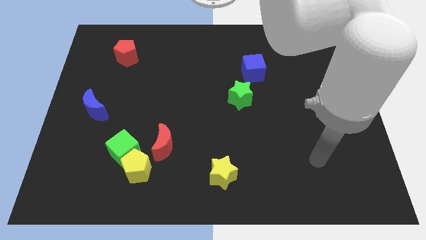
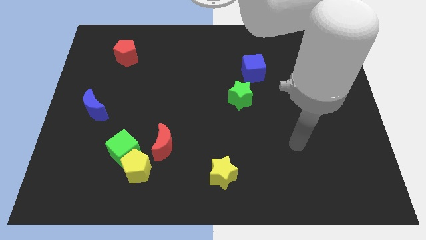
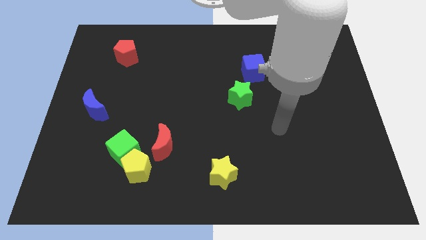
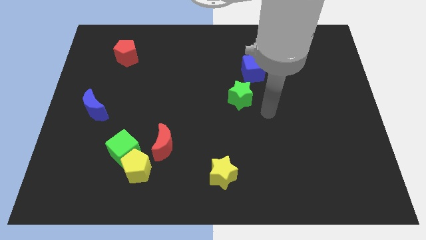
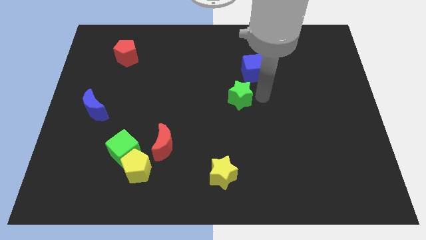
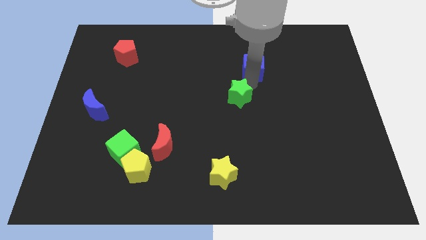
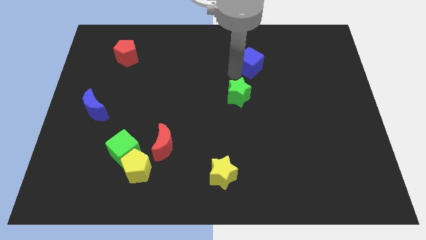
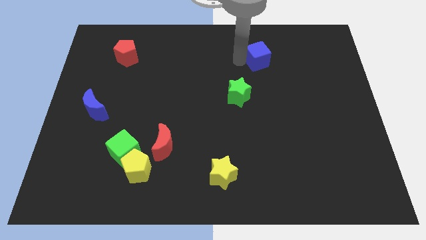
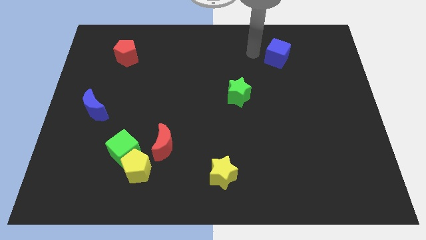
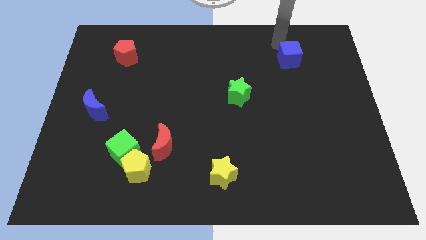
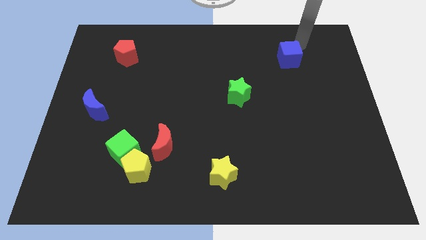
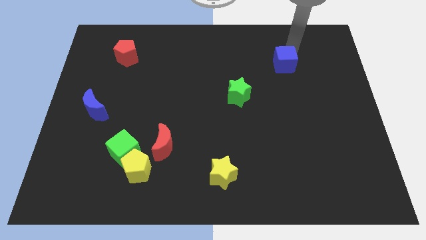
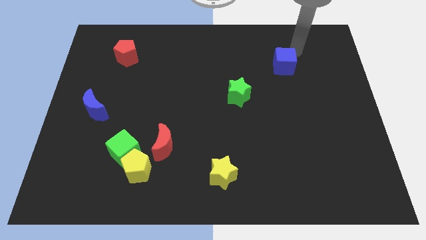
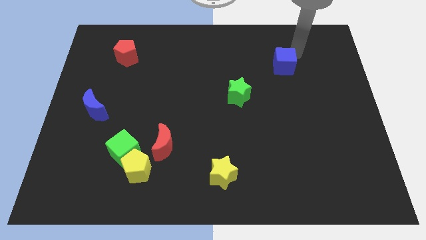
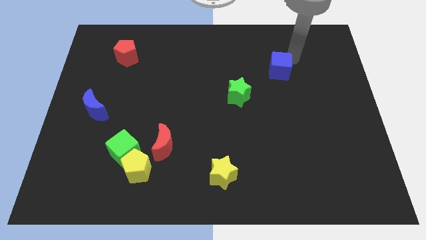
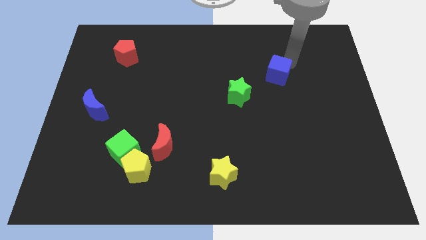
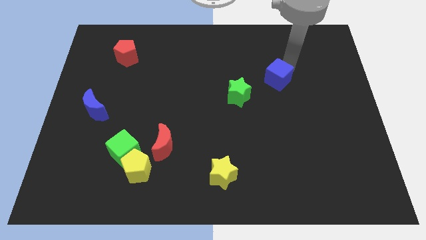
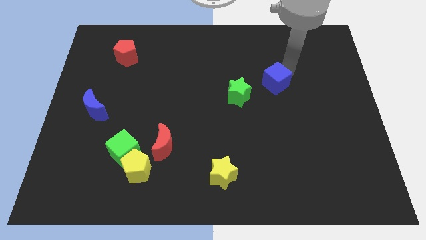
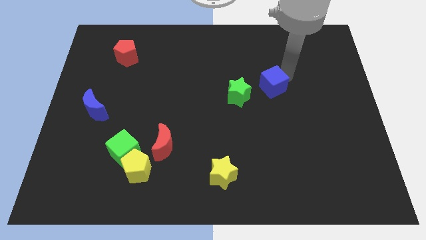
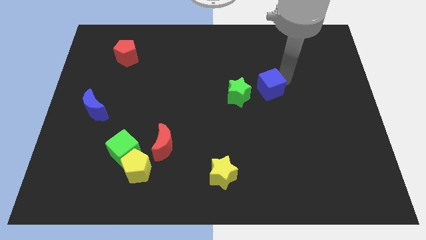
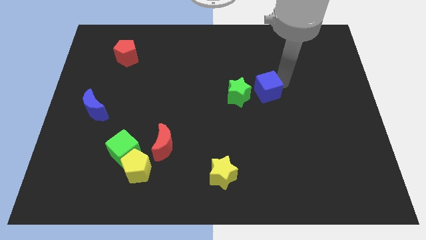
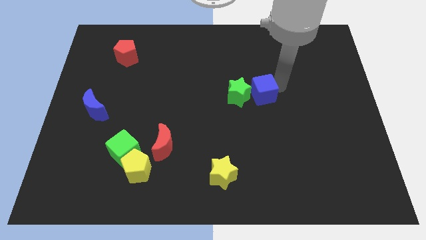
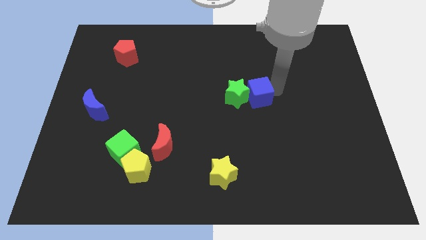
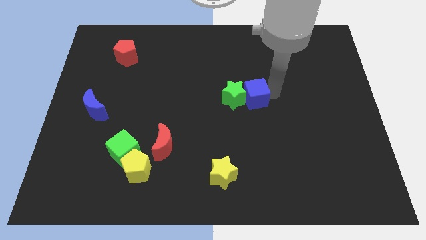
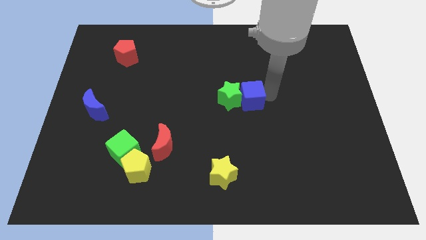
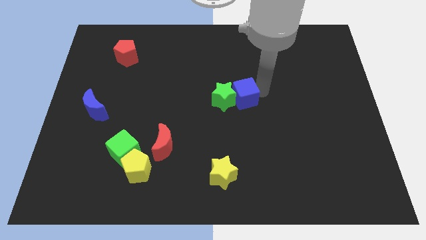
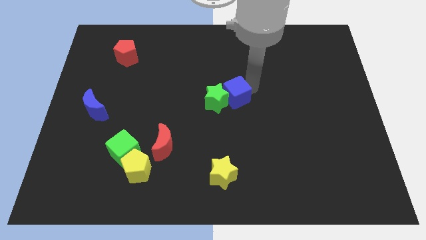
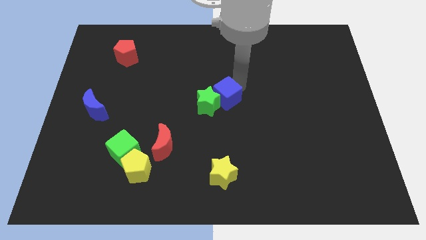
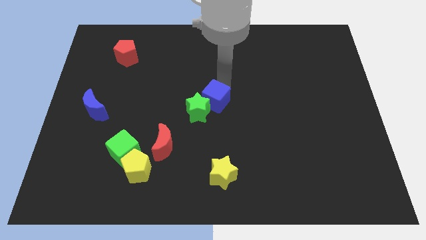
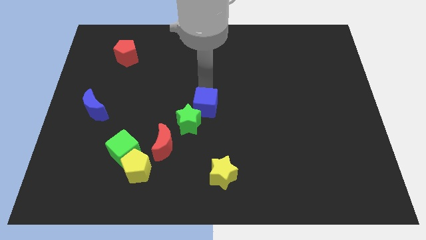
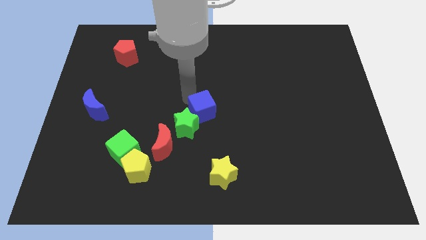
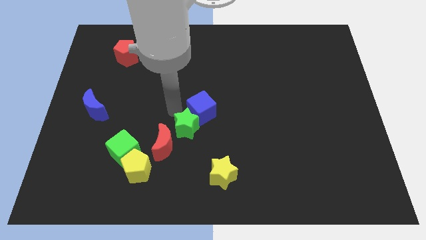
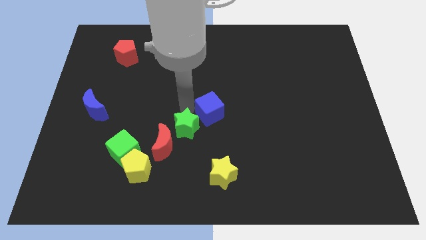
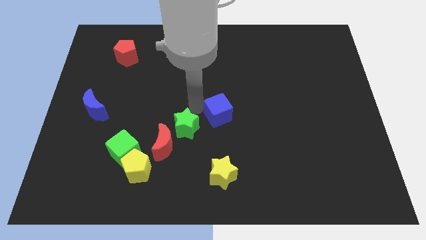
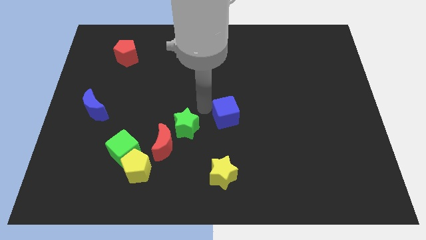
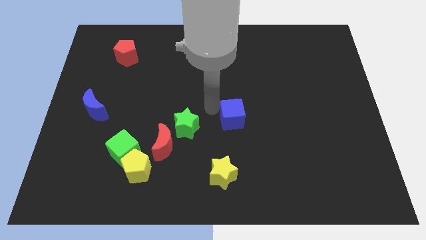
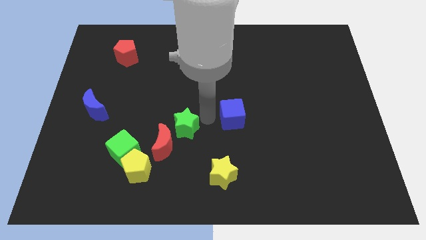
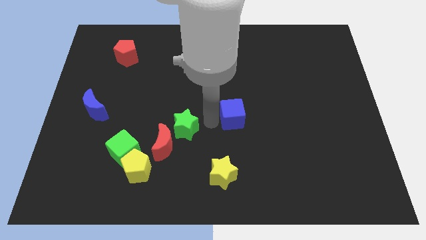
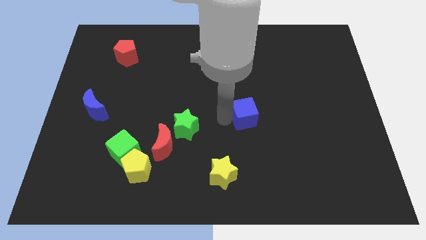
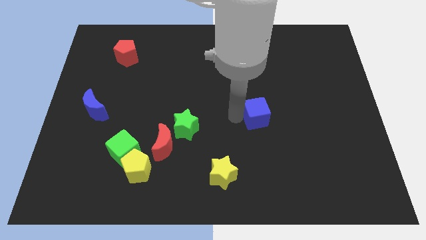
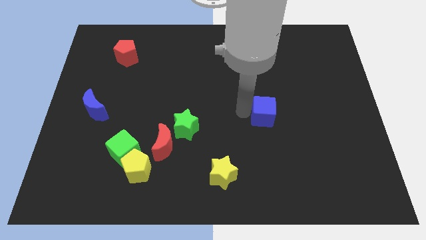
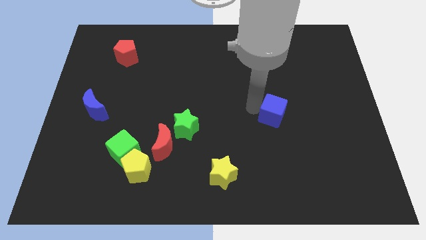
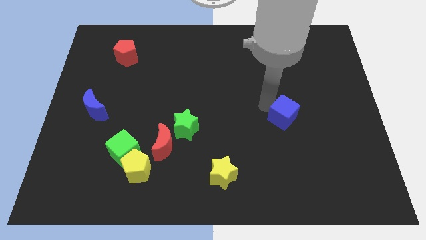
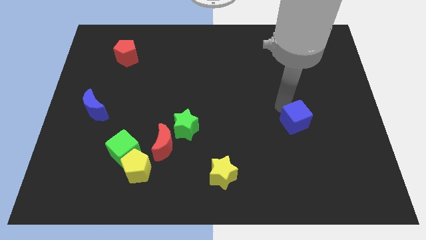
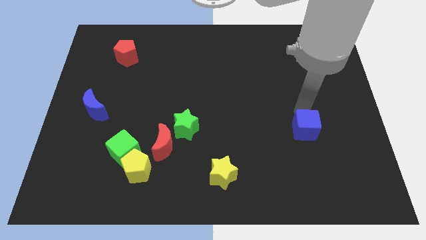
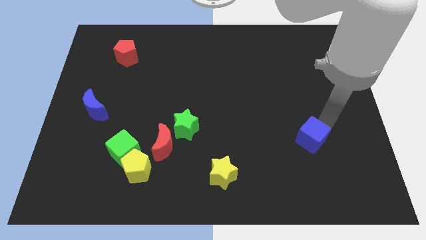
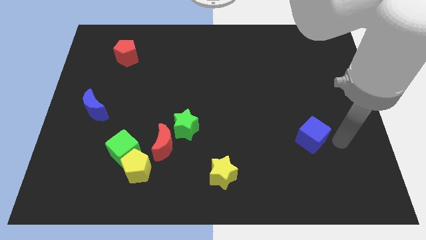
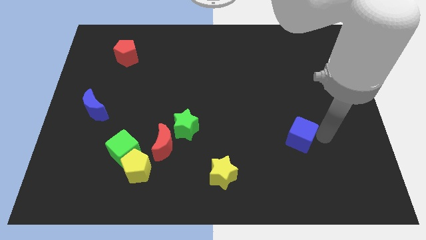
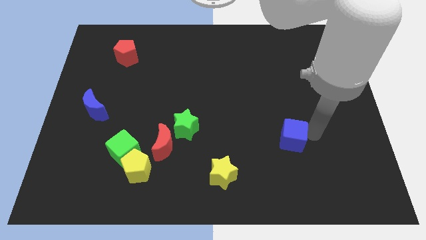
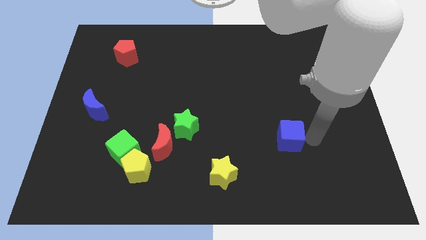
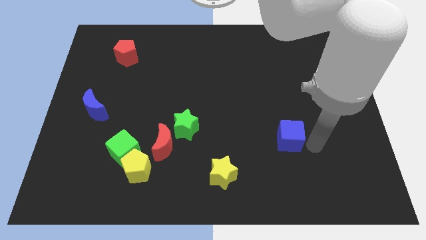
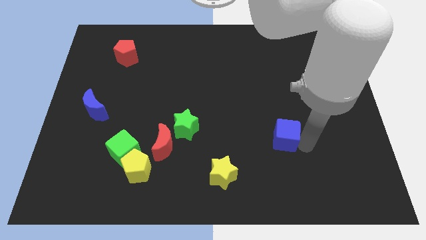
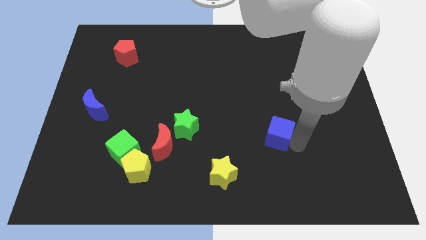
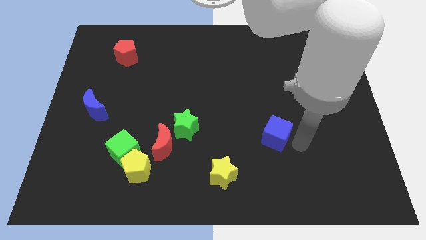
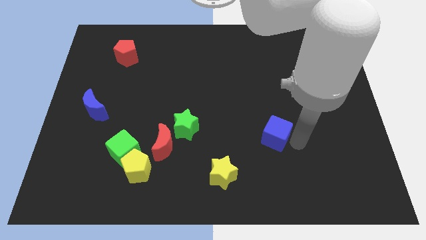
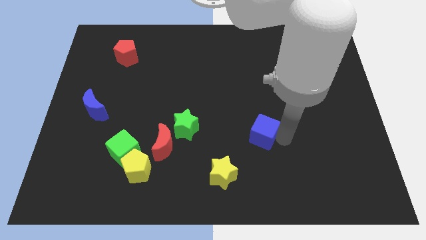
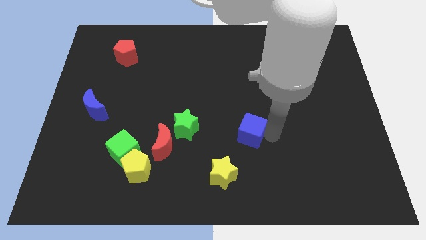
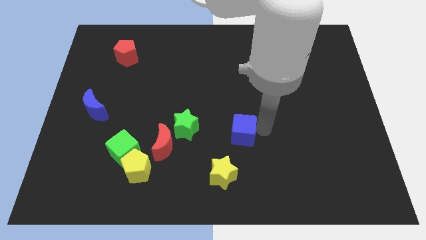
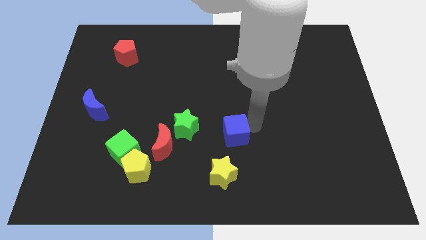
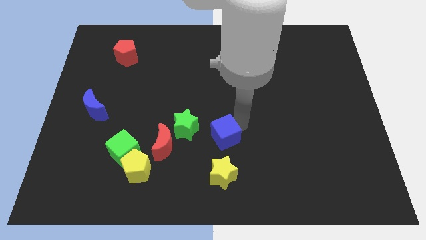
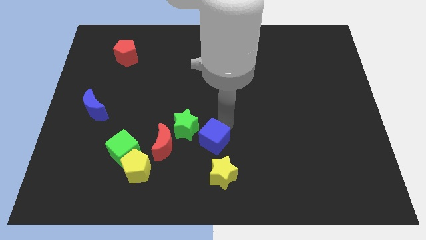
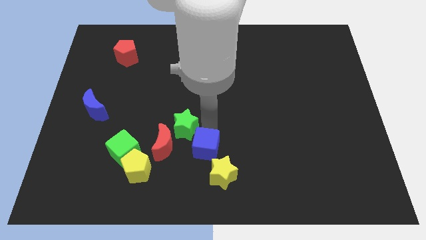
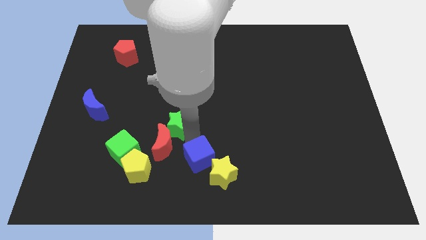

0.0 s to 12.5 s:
slide the blue cube to the bottom side

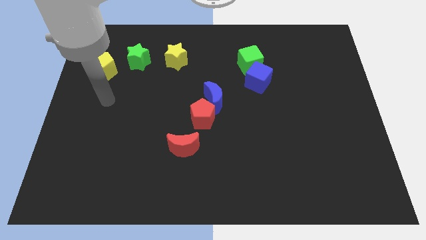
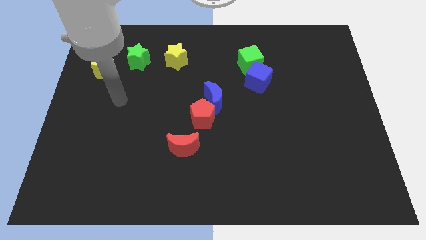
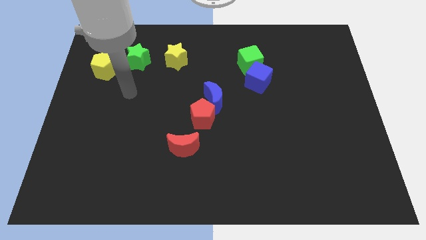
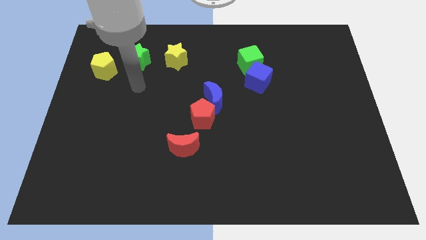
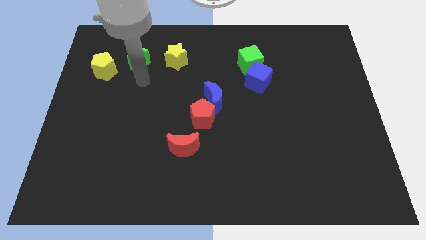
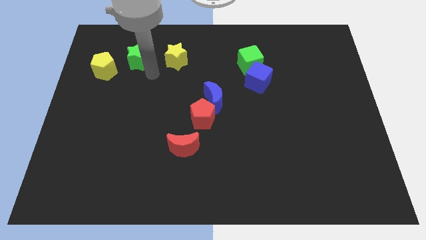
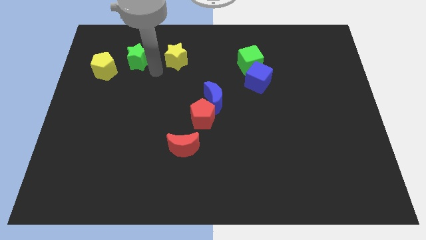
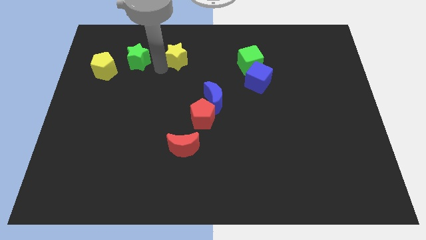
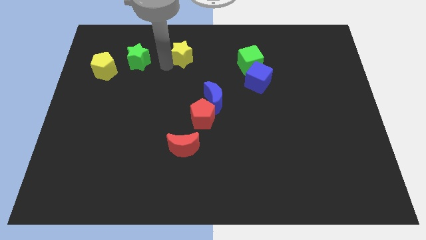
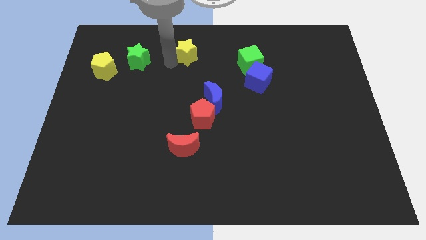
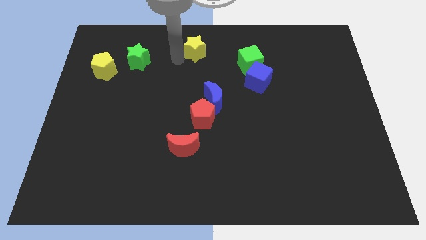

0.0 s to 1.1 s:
push the yellow star to the top side

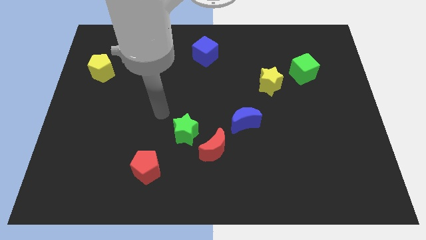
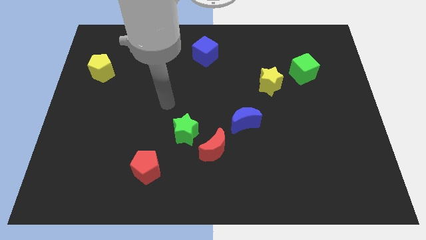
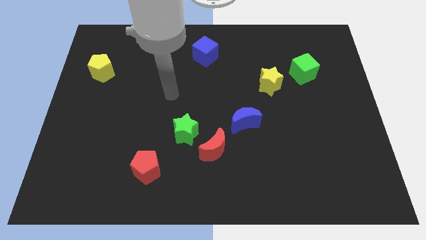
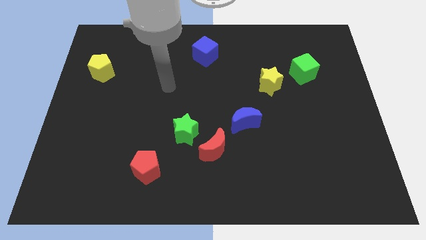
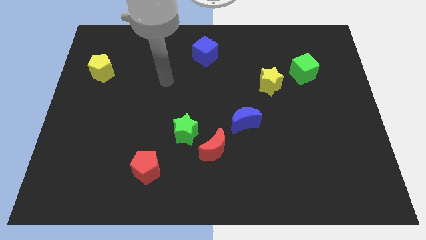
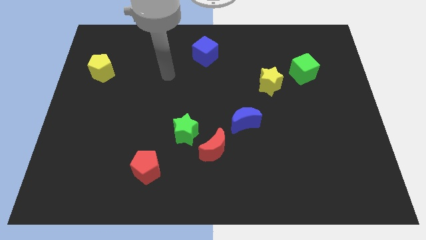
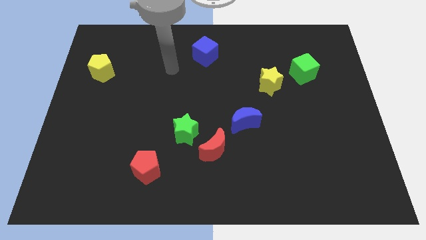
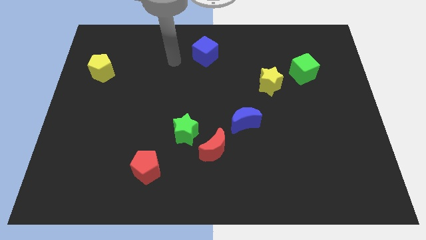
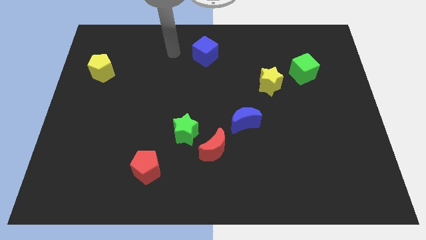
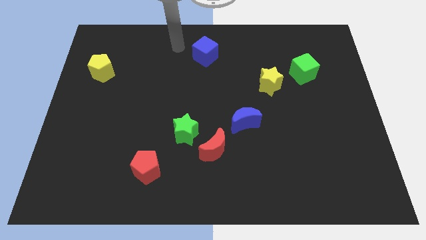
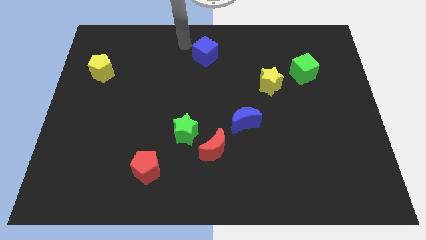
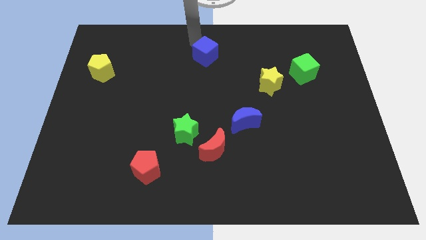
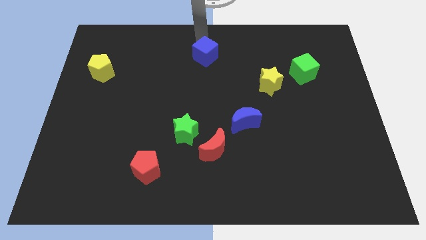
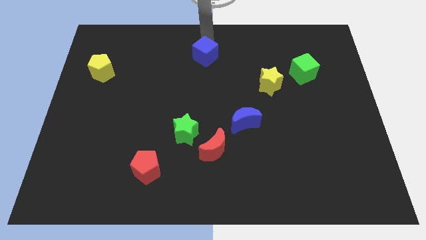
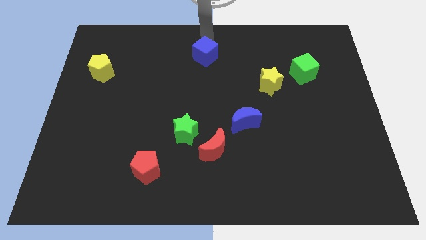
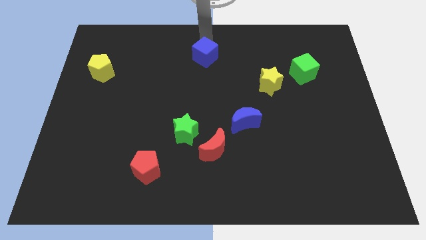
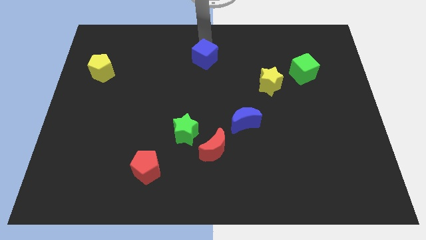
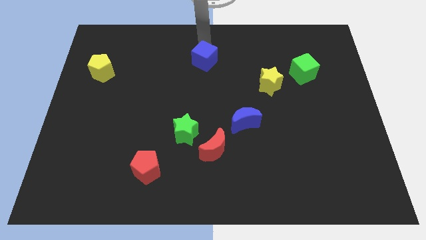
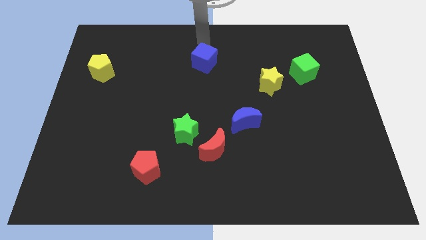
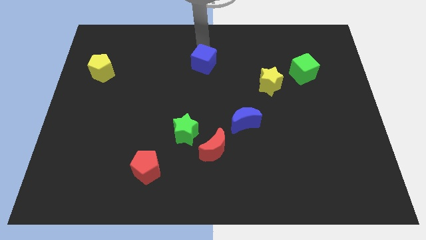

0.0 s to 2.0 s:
push the blue cube to the center
